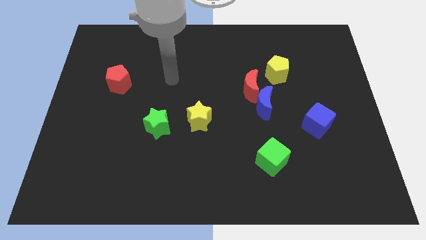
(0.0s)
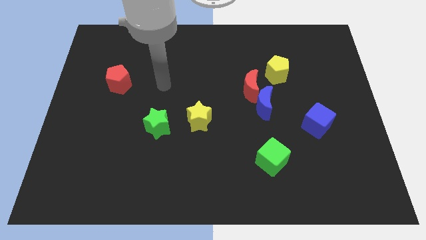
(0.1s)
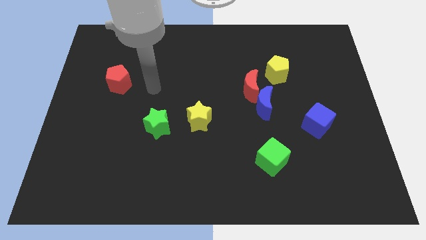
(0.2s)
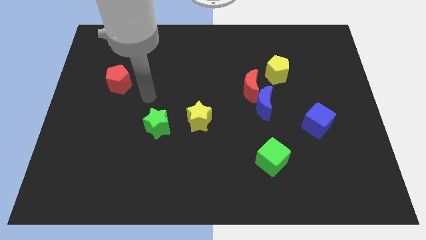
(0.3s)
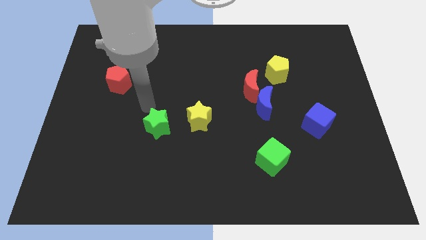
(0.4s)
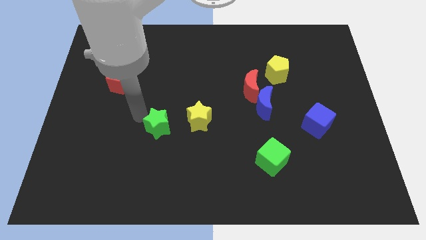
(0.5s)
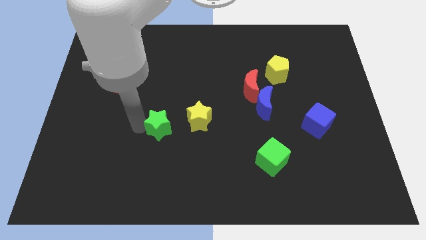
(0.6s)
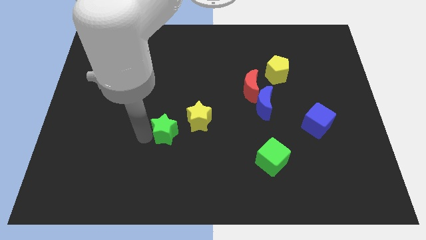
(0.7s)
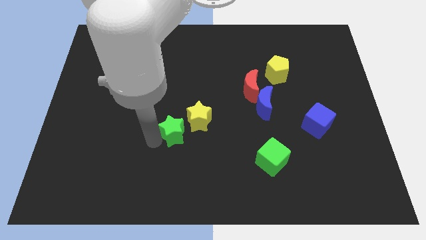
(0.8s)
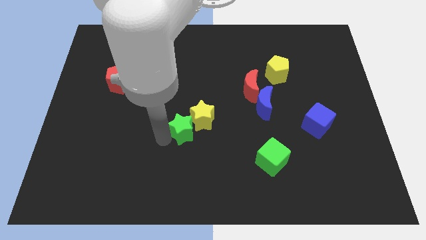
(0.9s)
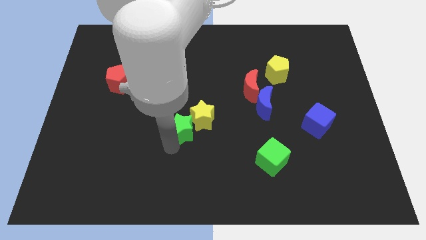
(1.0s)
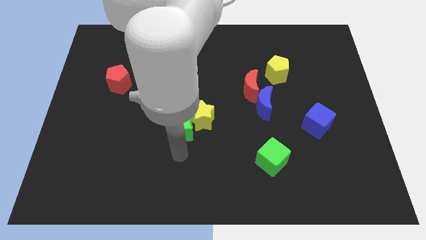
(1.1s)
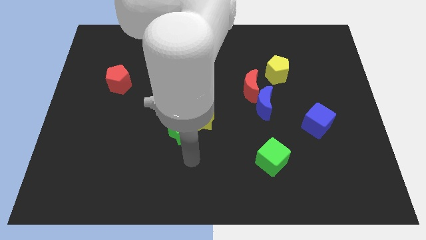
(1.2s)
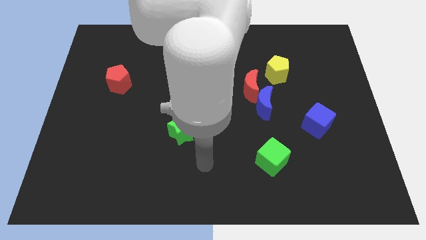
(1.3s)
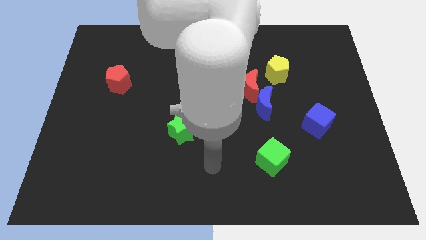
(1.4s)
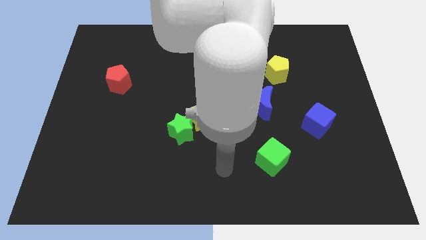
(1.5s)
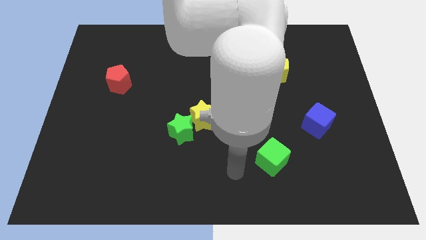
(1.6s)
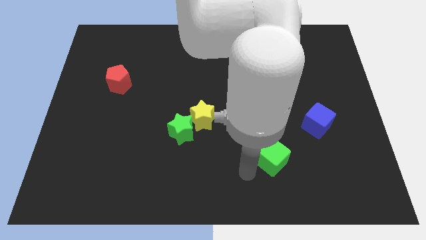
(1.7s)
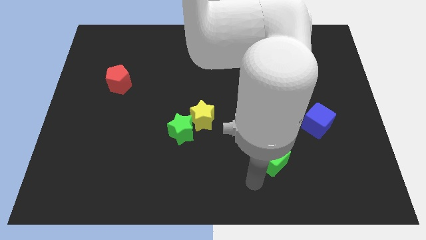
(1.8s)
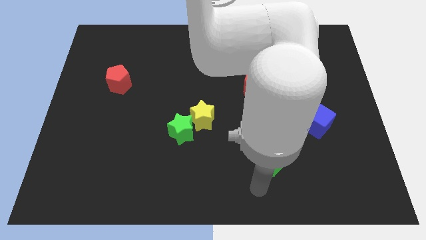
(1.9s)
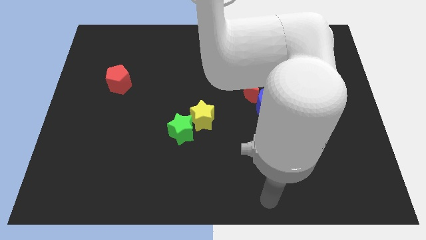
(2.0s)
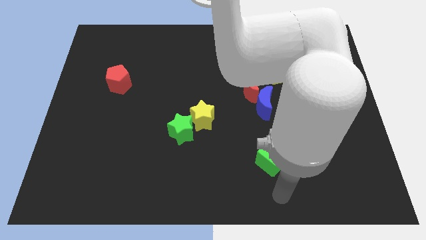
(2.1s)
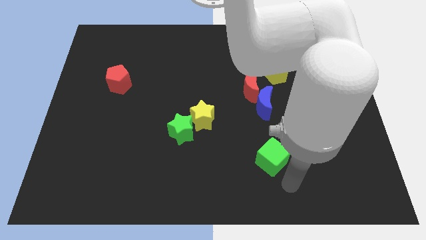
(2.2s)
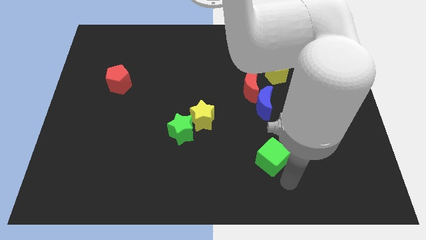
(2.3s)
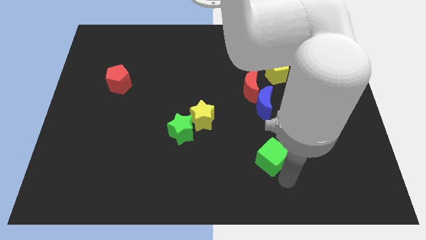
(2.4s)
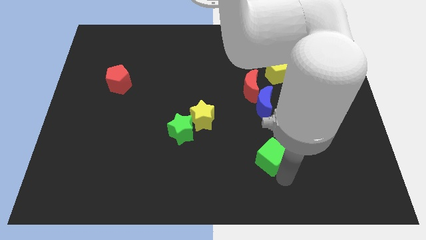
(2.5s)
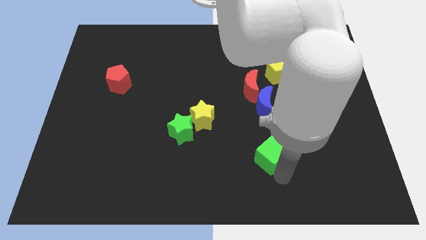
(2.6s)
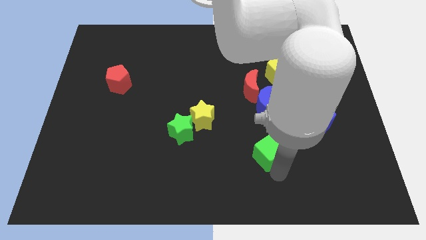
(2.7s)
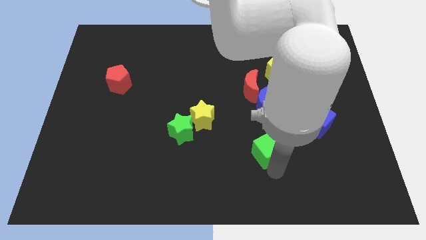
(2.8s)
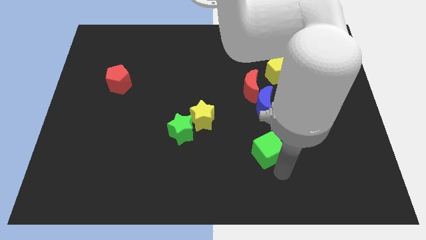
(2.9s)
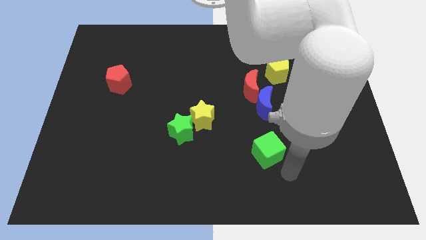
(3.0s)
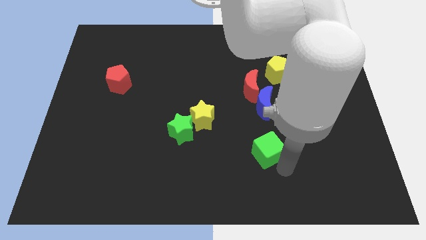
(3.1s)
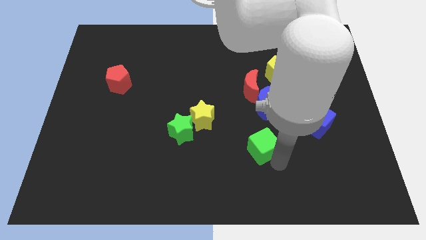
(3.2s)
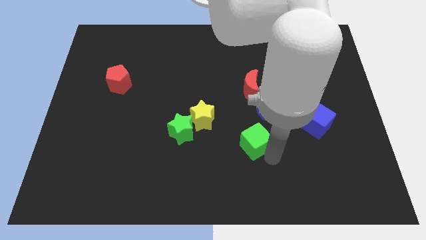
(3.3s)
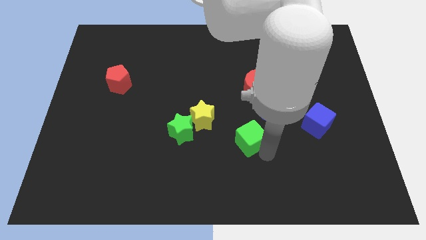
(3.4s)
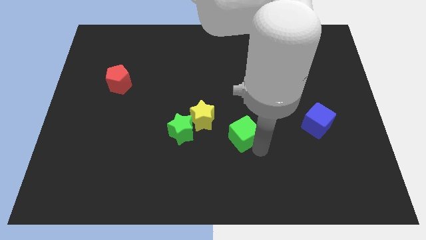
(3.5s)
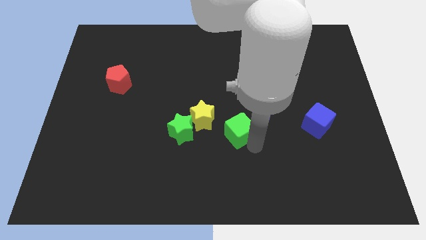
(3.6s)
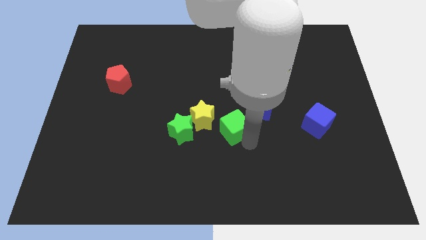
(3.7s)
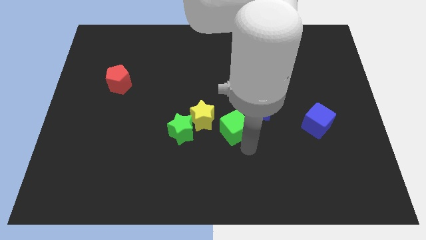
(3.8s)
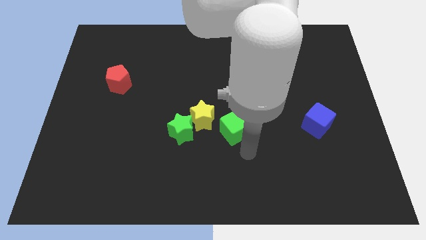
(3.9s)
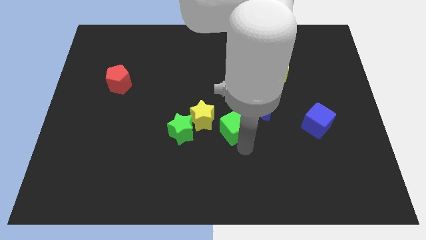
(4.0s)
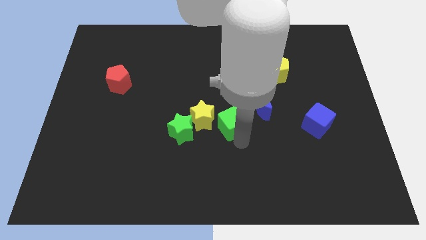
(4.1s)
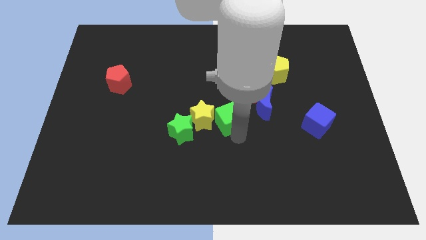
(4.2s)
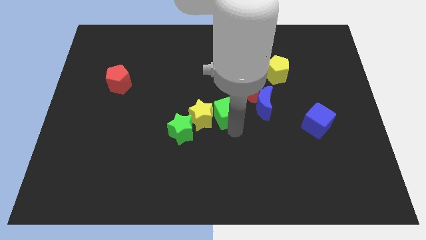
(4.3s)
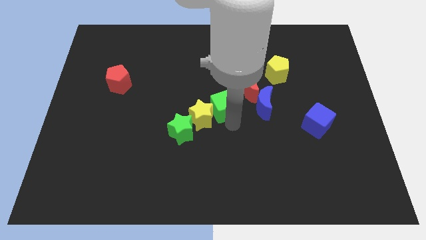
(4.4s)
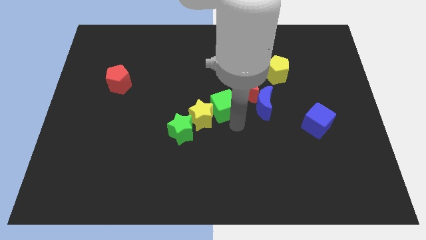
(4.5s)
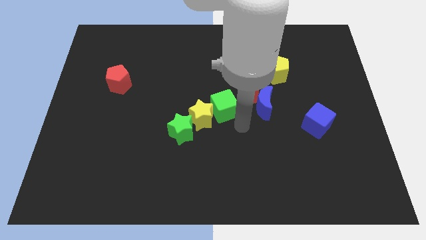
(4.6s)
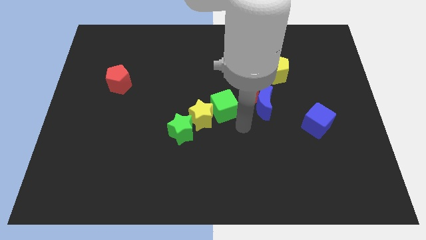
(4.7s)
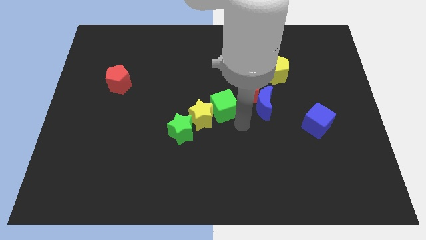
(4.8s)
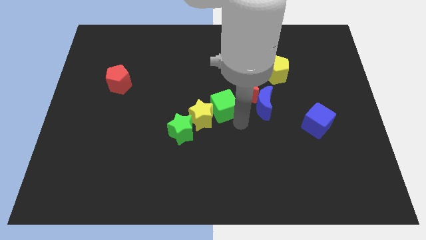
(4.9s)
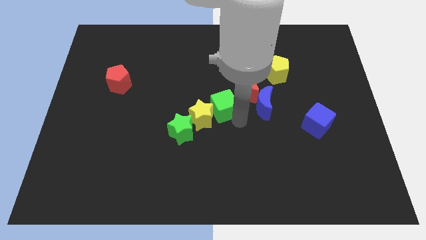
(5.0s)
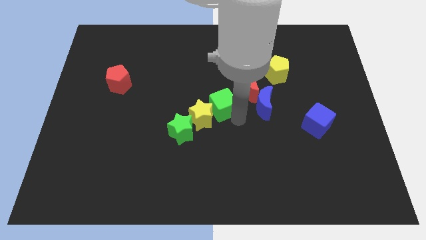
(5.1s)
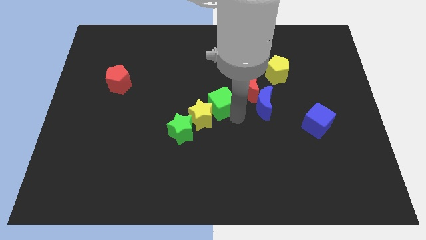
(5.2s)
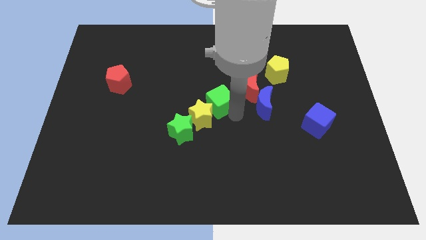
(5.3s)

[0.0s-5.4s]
slide the green cube just left of the red moon

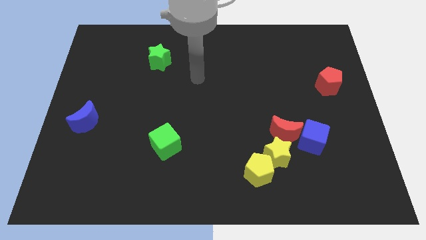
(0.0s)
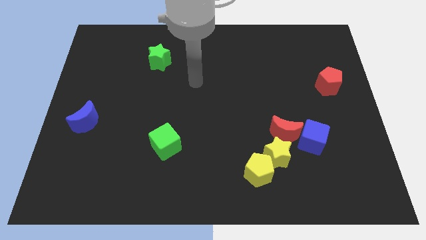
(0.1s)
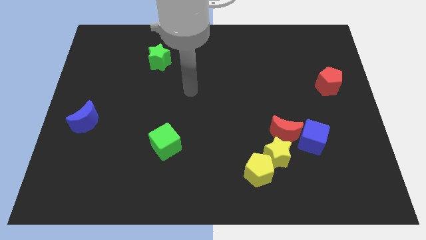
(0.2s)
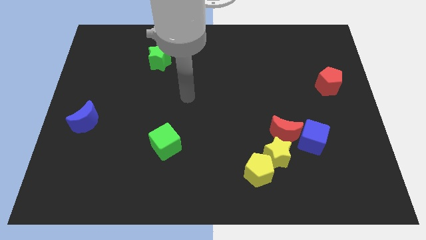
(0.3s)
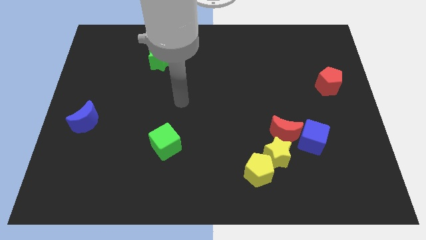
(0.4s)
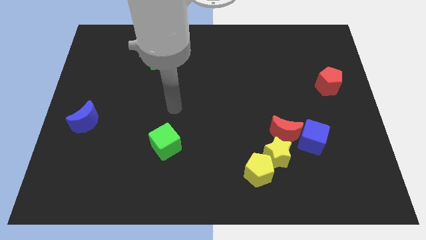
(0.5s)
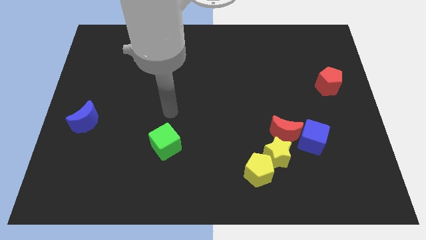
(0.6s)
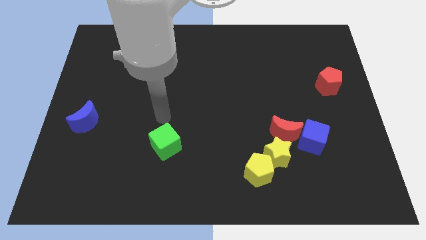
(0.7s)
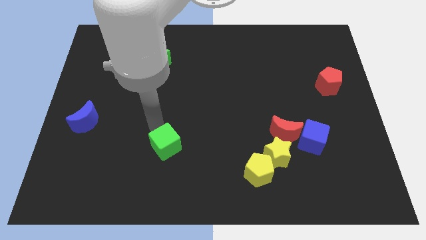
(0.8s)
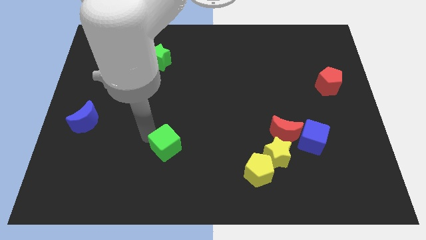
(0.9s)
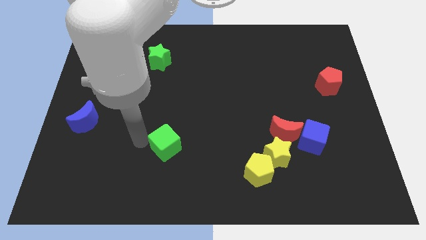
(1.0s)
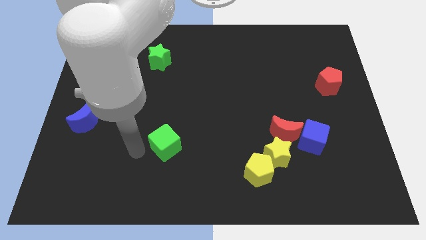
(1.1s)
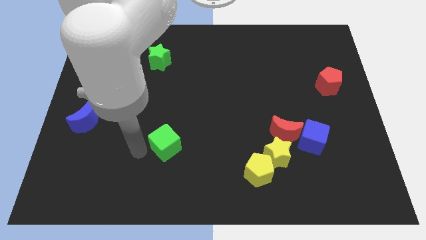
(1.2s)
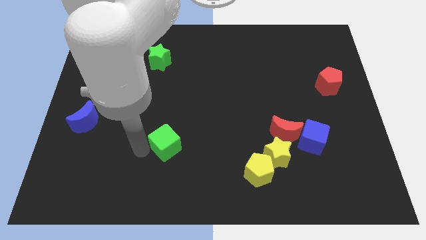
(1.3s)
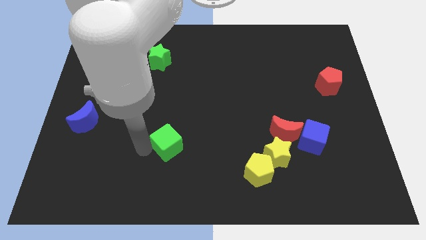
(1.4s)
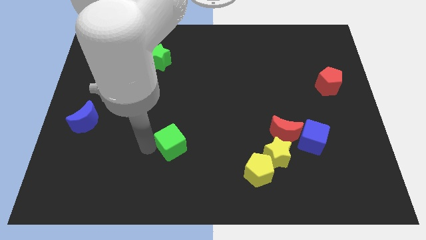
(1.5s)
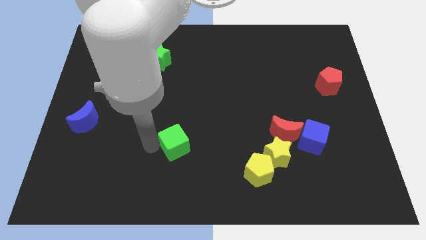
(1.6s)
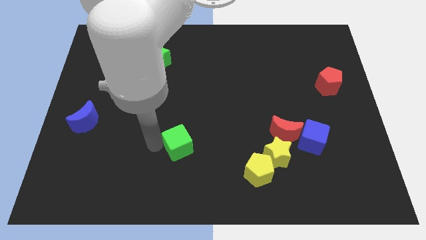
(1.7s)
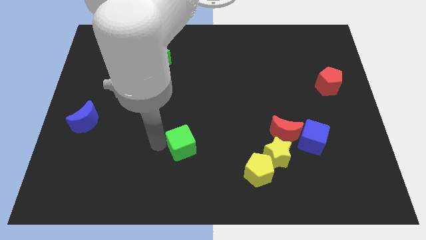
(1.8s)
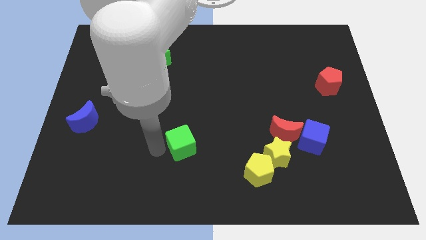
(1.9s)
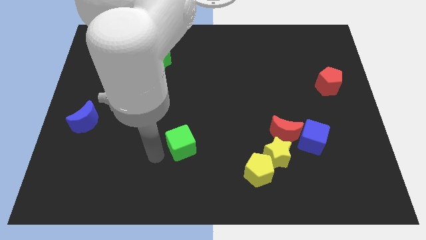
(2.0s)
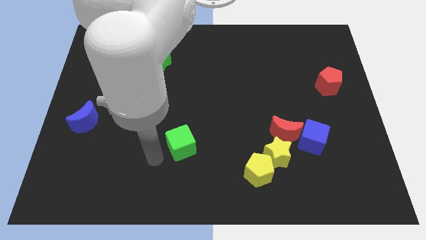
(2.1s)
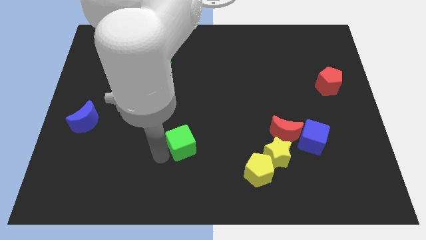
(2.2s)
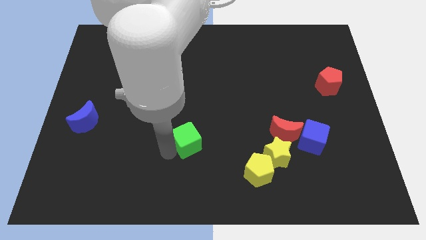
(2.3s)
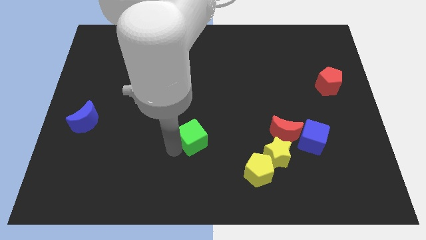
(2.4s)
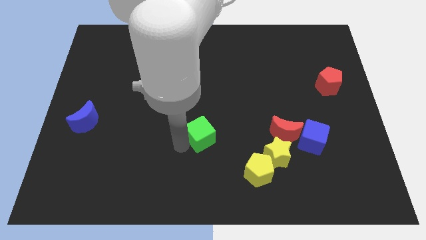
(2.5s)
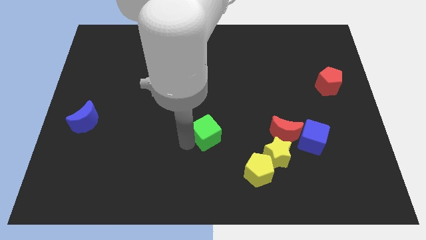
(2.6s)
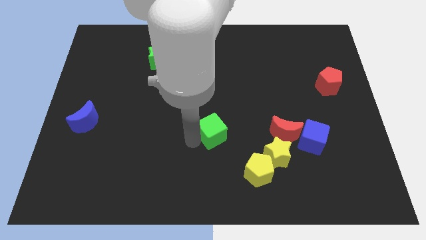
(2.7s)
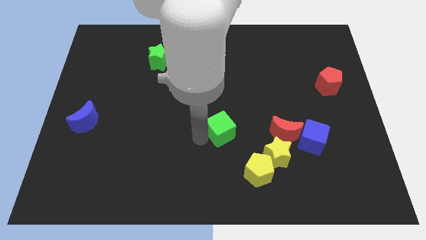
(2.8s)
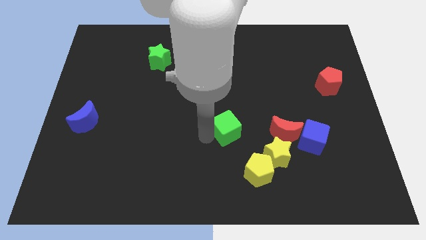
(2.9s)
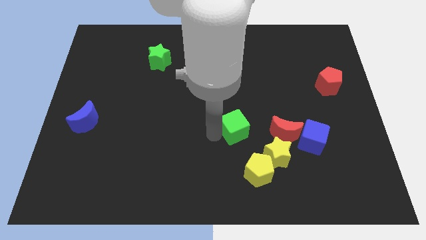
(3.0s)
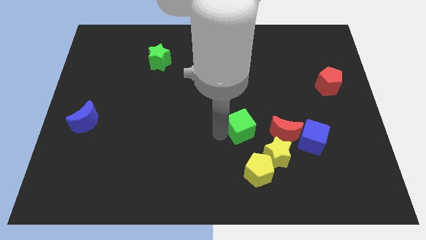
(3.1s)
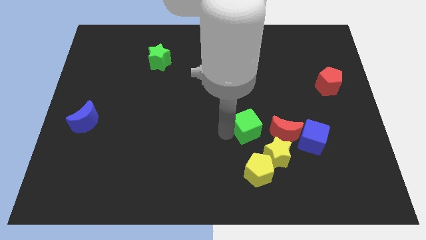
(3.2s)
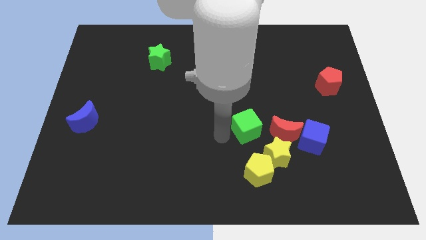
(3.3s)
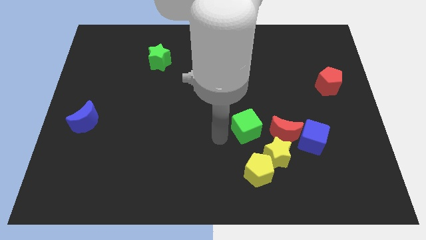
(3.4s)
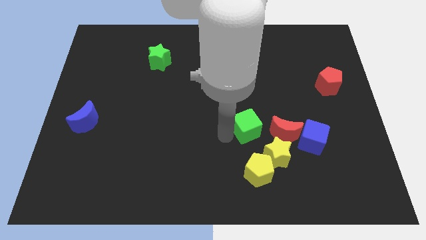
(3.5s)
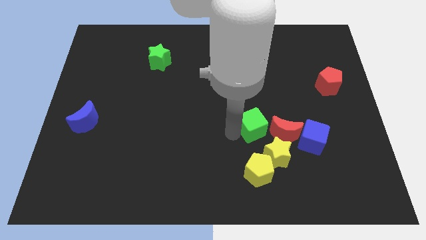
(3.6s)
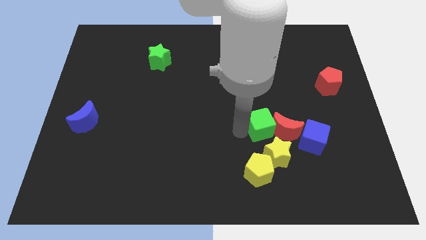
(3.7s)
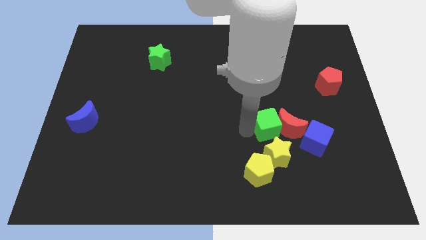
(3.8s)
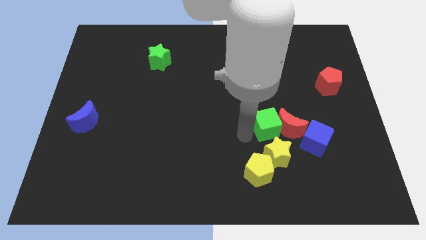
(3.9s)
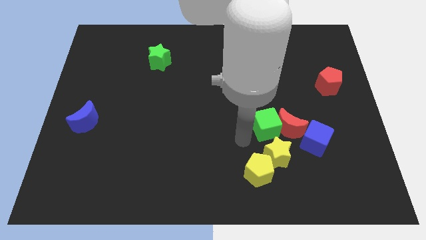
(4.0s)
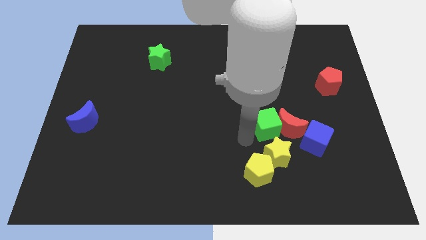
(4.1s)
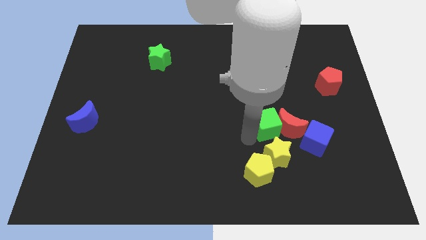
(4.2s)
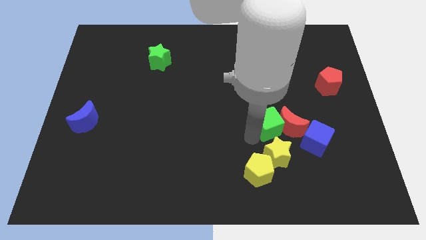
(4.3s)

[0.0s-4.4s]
move the green cube to the top left side of the blue cube
